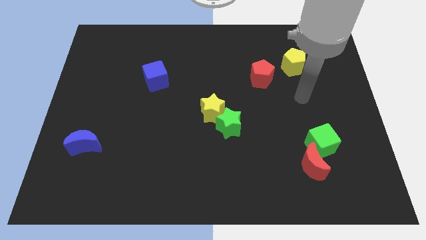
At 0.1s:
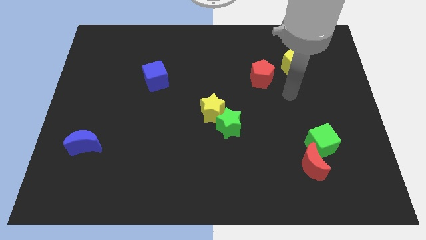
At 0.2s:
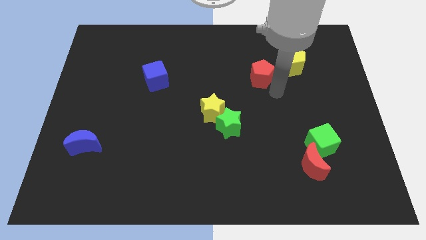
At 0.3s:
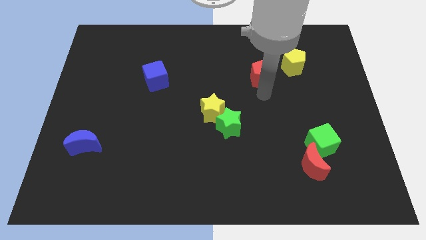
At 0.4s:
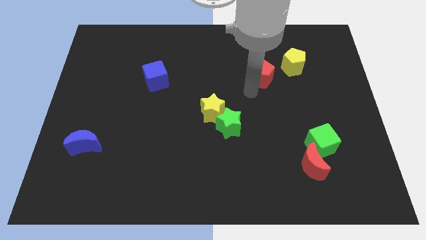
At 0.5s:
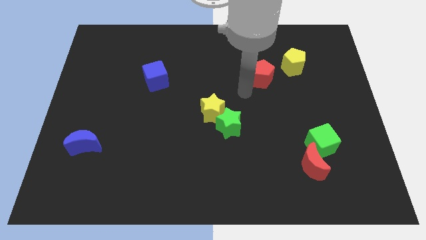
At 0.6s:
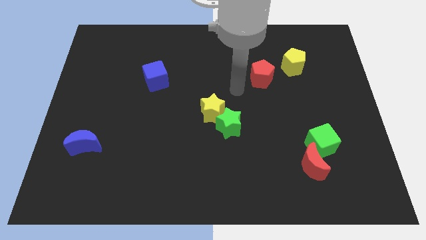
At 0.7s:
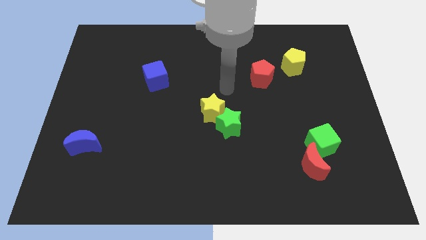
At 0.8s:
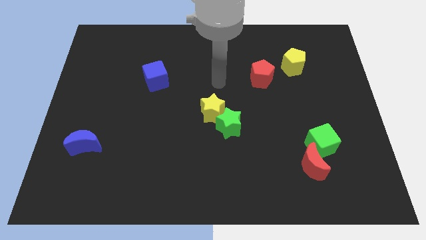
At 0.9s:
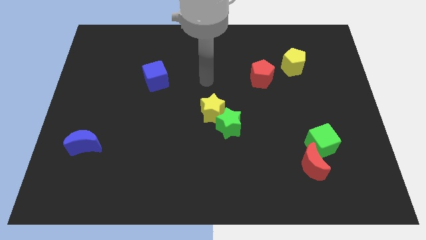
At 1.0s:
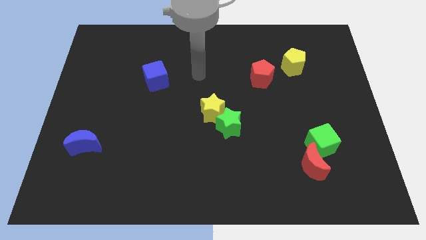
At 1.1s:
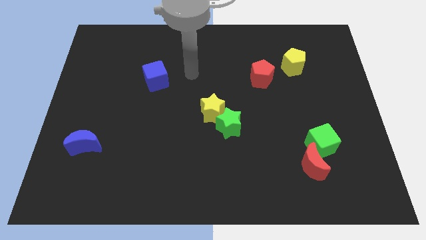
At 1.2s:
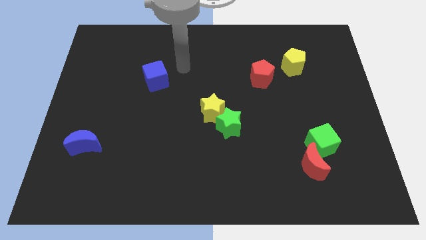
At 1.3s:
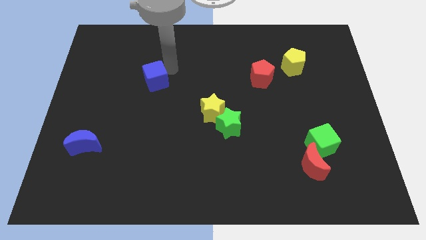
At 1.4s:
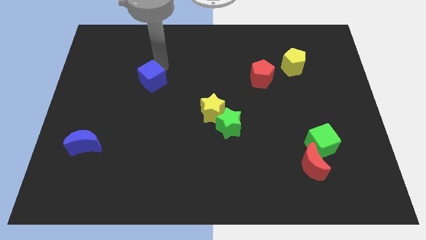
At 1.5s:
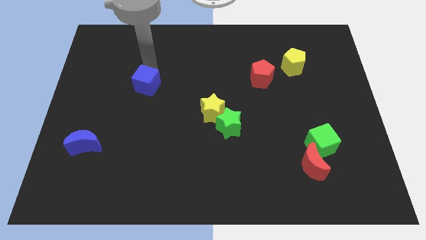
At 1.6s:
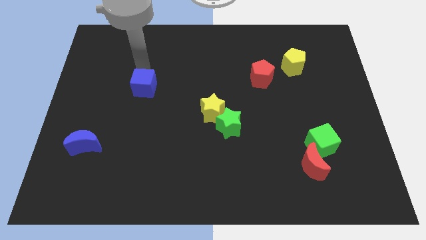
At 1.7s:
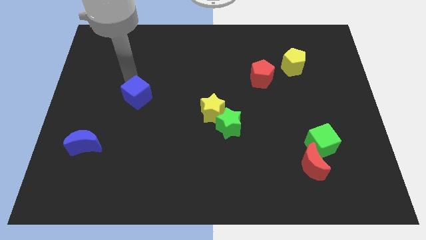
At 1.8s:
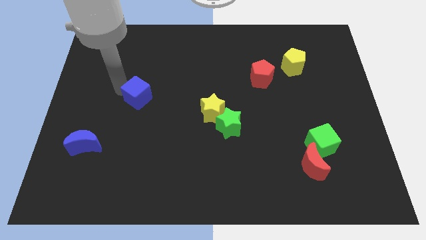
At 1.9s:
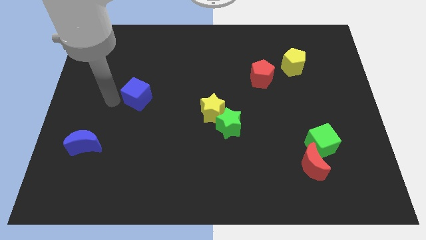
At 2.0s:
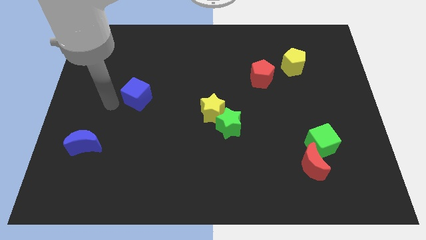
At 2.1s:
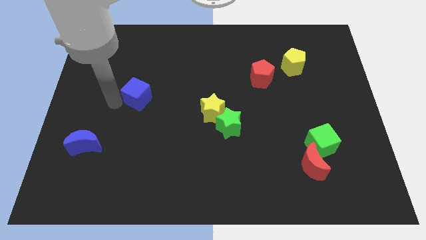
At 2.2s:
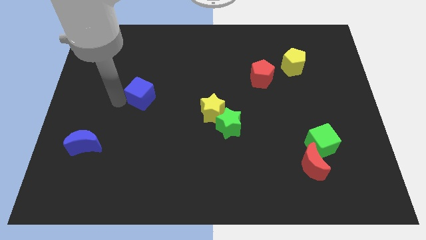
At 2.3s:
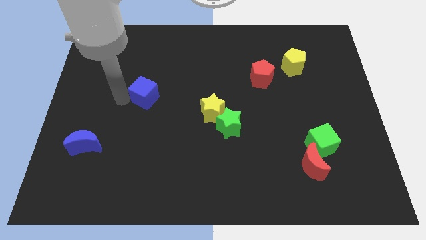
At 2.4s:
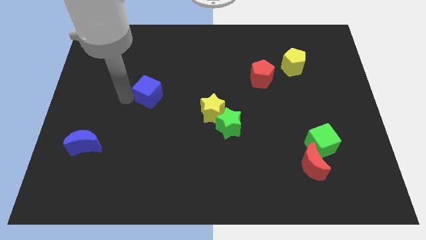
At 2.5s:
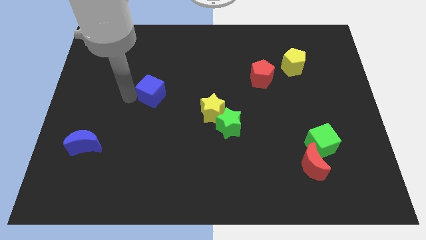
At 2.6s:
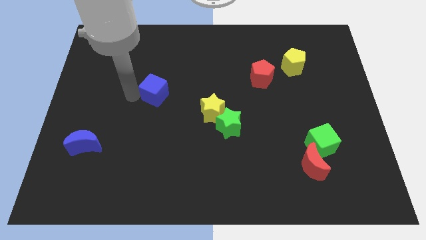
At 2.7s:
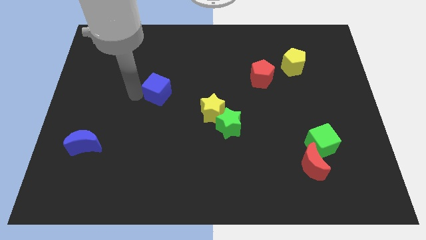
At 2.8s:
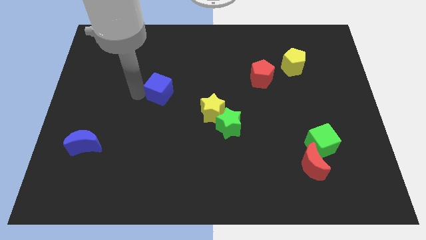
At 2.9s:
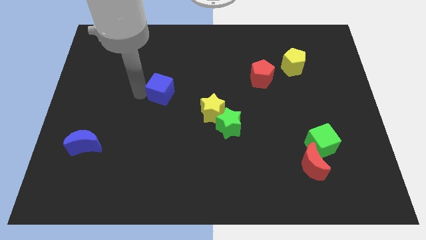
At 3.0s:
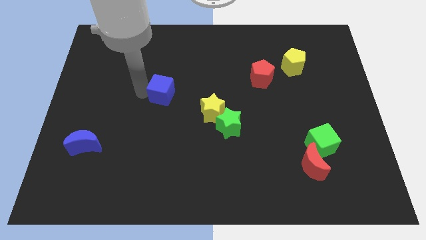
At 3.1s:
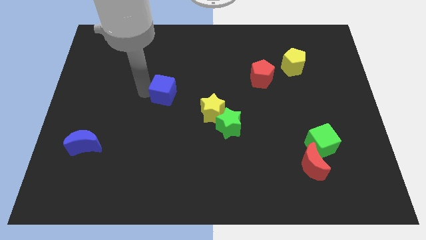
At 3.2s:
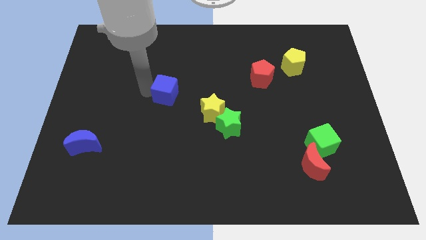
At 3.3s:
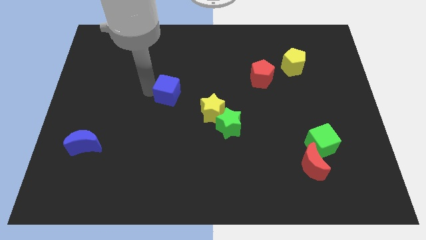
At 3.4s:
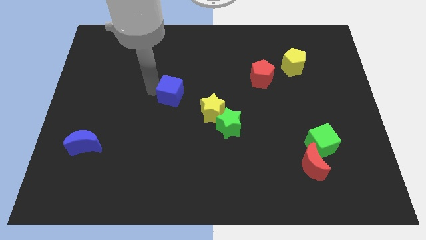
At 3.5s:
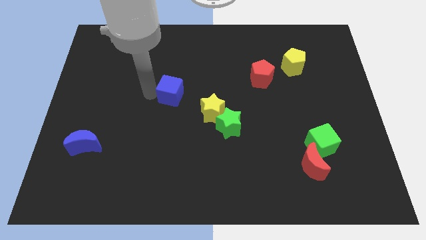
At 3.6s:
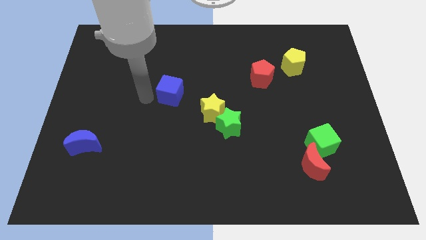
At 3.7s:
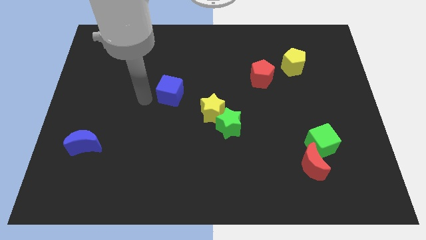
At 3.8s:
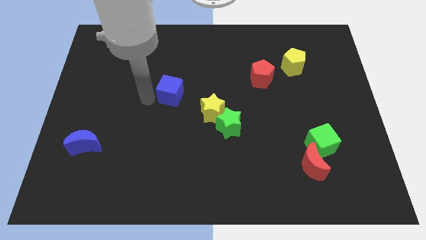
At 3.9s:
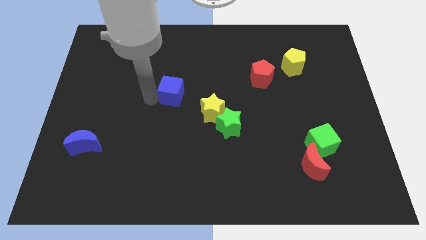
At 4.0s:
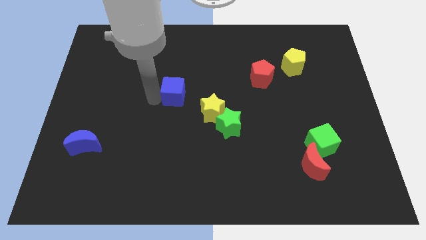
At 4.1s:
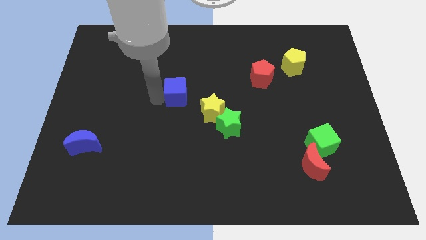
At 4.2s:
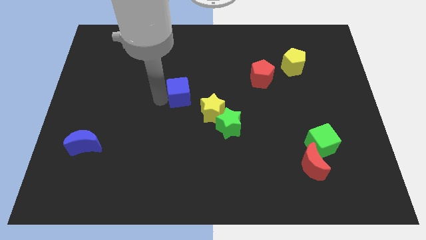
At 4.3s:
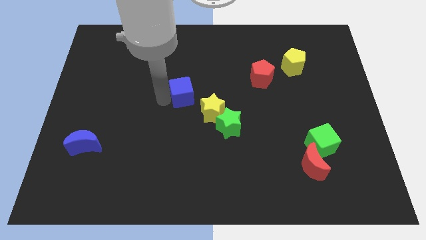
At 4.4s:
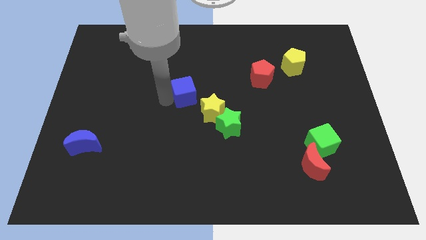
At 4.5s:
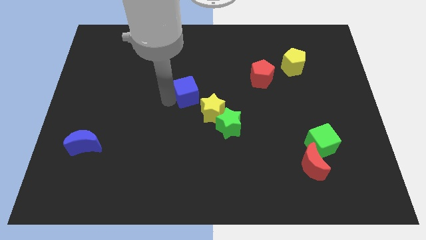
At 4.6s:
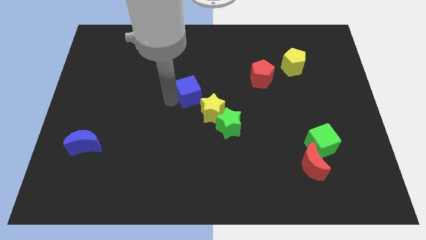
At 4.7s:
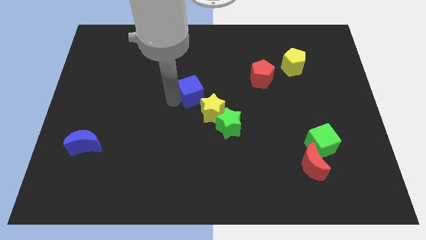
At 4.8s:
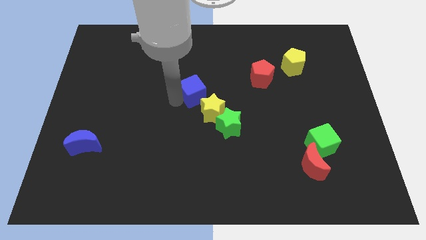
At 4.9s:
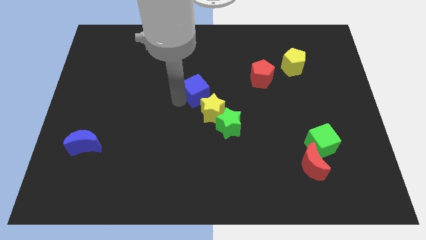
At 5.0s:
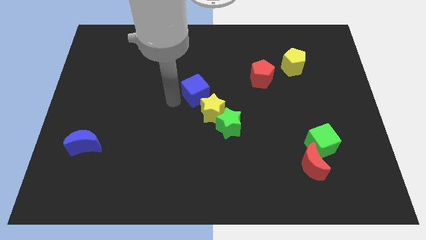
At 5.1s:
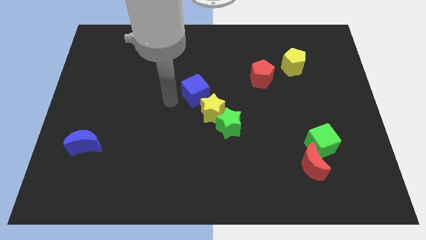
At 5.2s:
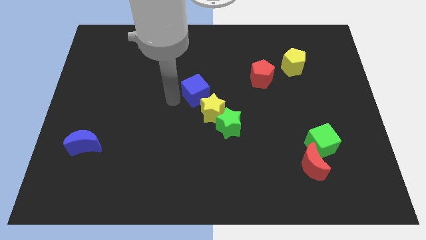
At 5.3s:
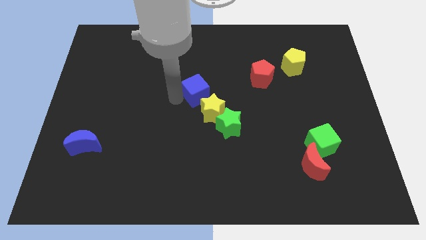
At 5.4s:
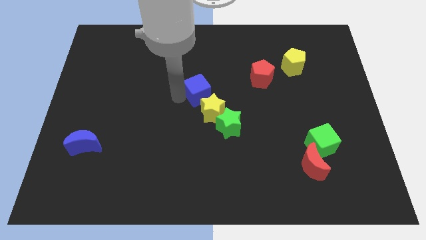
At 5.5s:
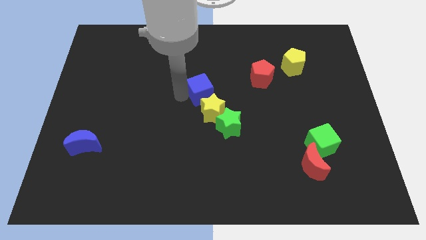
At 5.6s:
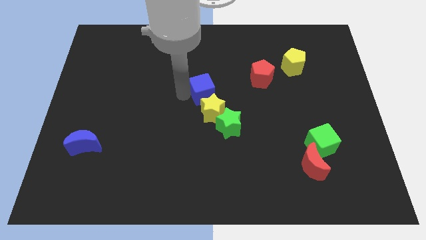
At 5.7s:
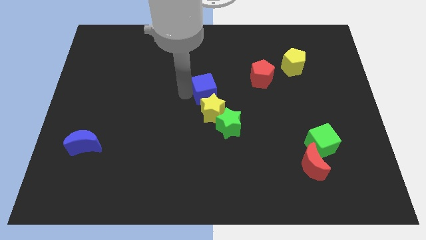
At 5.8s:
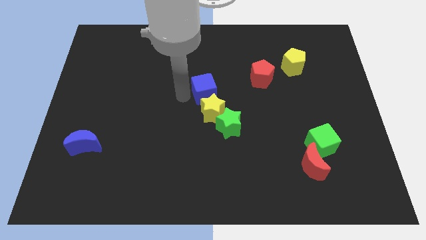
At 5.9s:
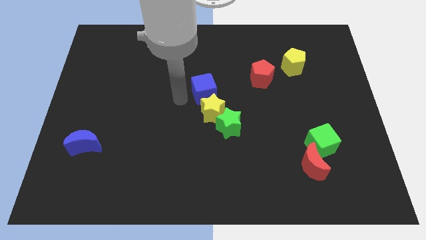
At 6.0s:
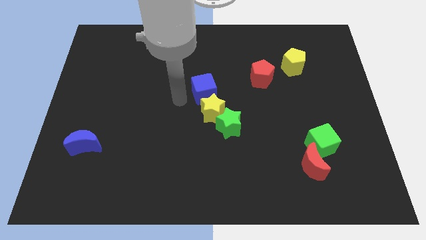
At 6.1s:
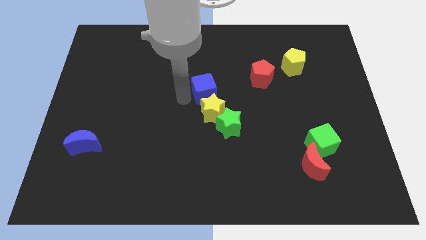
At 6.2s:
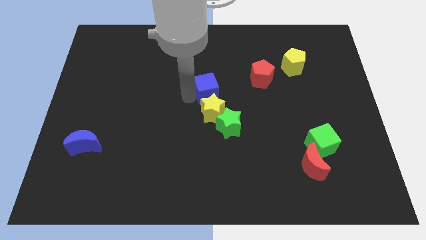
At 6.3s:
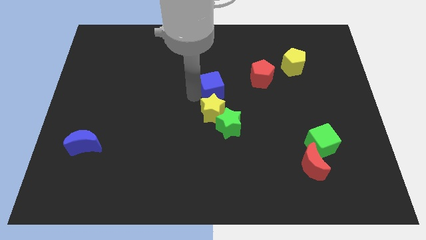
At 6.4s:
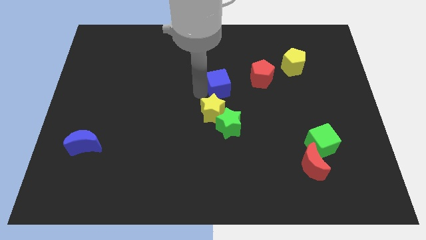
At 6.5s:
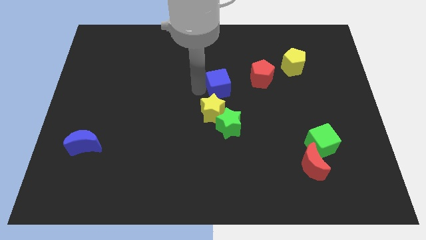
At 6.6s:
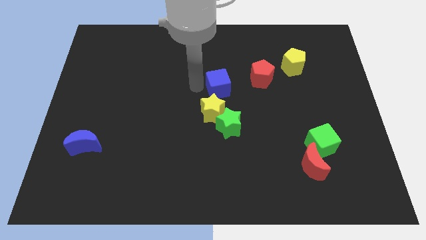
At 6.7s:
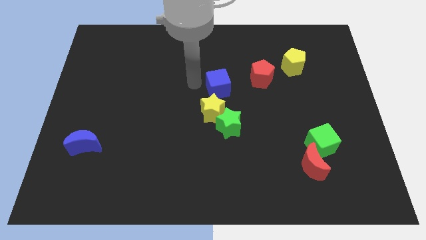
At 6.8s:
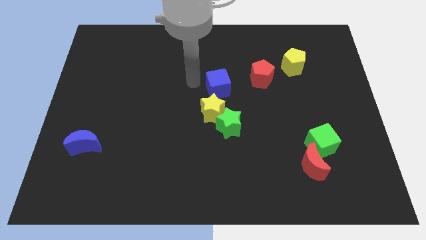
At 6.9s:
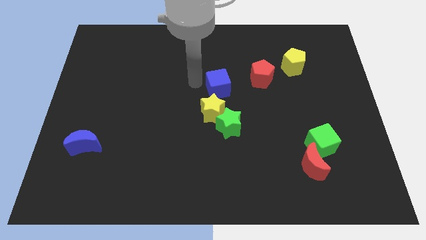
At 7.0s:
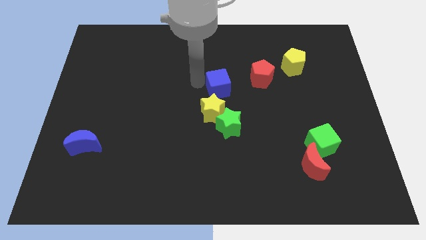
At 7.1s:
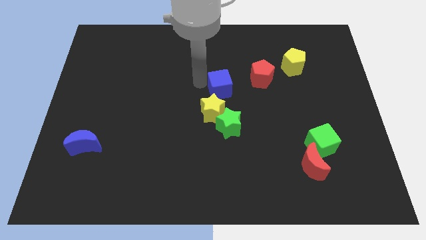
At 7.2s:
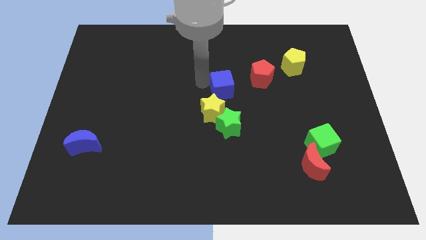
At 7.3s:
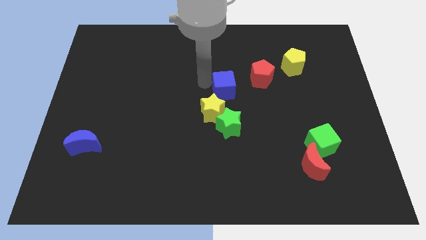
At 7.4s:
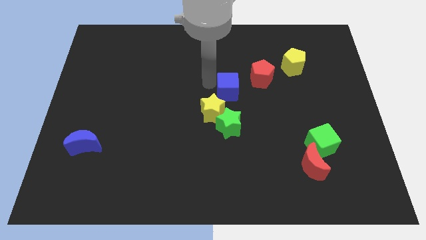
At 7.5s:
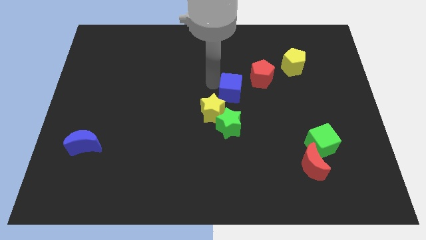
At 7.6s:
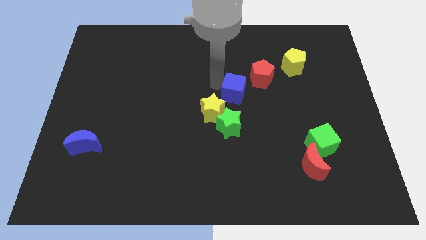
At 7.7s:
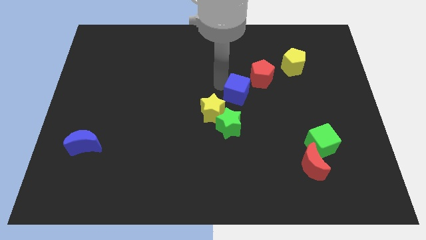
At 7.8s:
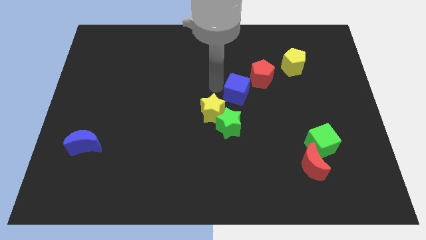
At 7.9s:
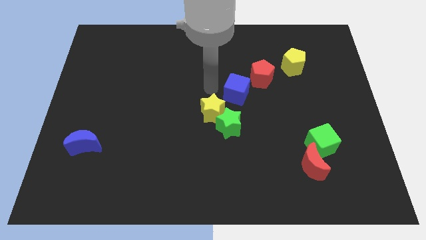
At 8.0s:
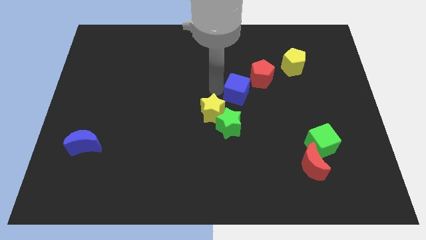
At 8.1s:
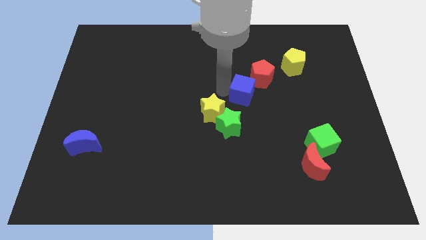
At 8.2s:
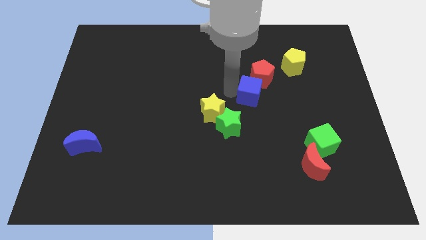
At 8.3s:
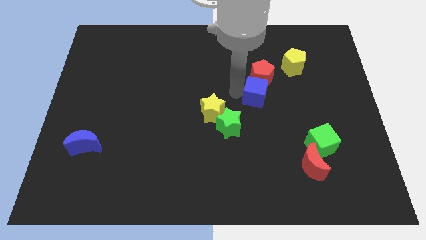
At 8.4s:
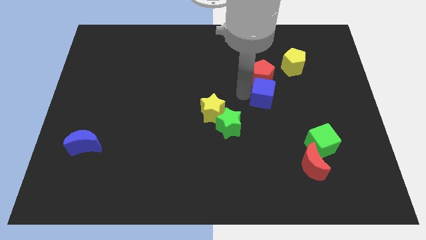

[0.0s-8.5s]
move the blue cube to the bottom right of the red pentagon
